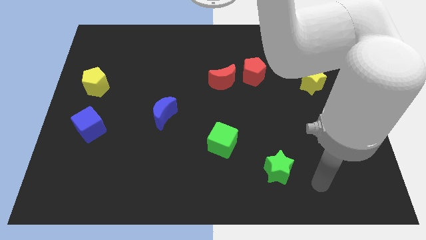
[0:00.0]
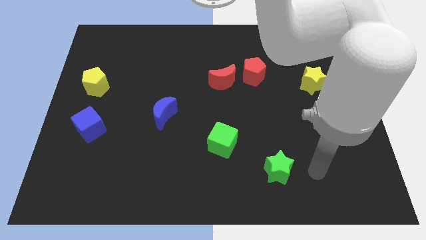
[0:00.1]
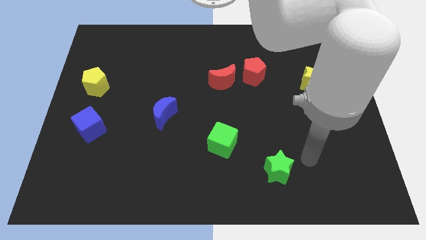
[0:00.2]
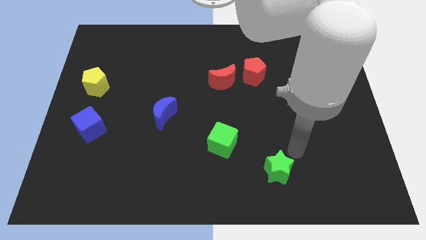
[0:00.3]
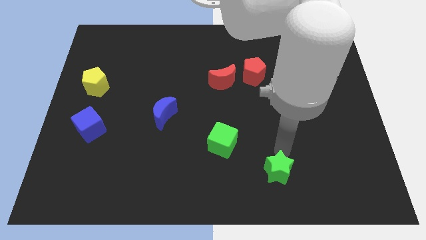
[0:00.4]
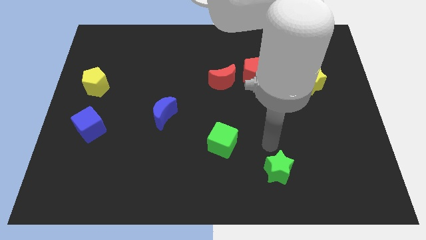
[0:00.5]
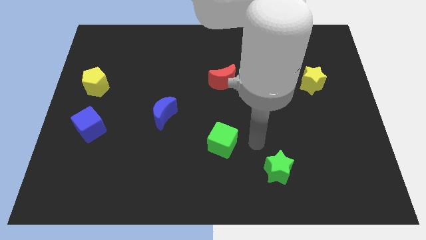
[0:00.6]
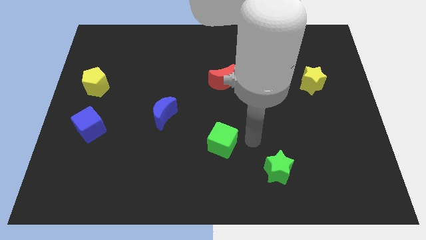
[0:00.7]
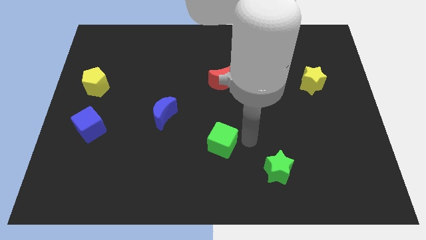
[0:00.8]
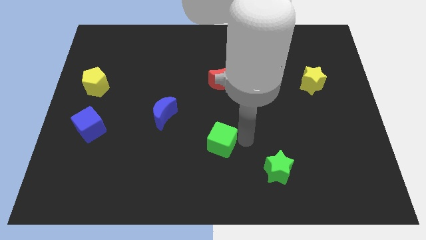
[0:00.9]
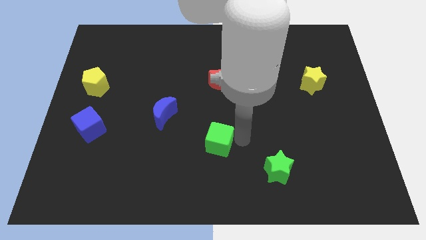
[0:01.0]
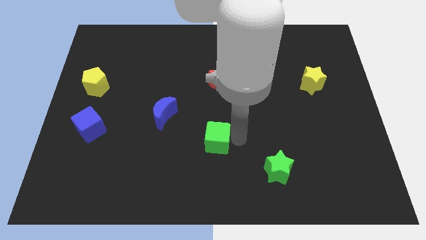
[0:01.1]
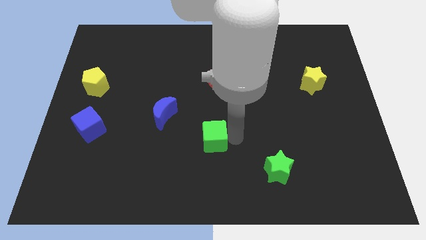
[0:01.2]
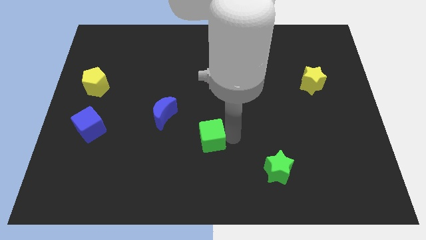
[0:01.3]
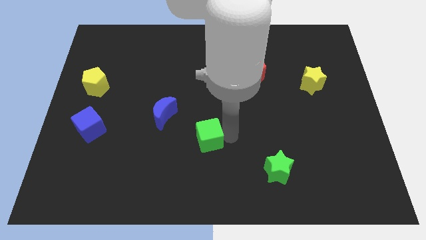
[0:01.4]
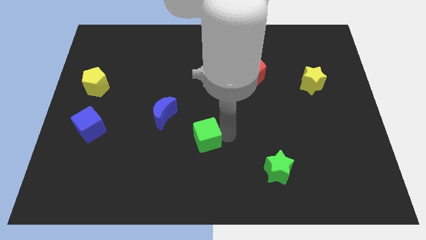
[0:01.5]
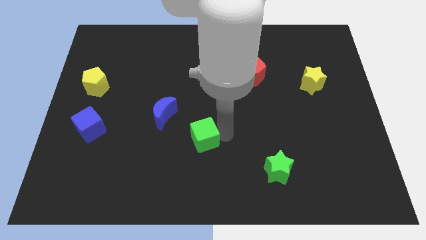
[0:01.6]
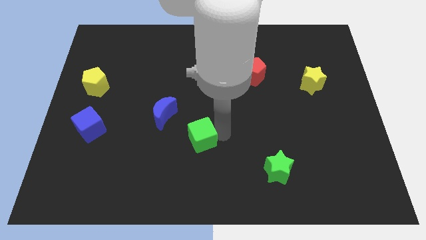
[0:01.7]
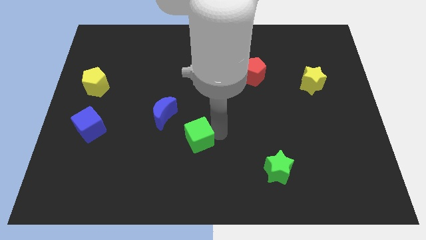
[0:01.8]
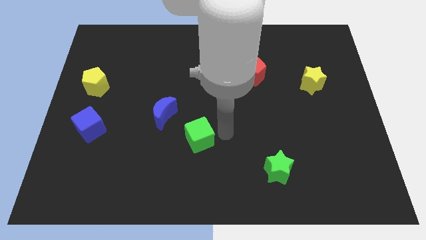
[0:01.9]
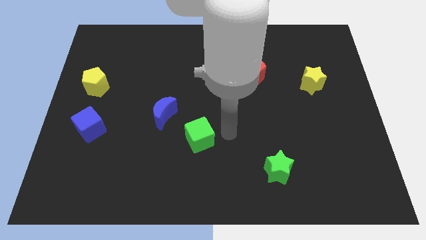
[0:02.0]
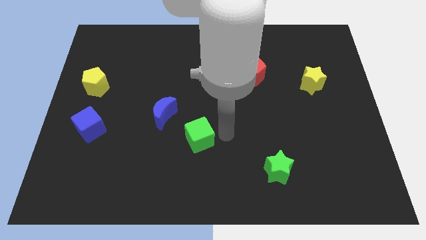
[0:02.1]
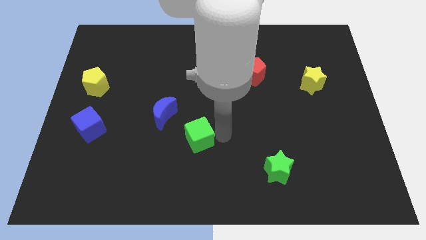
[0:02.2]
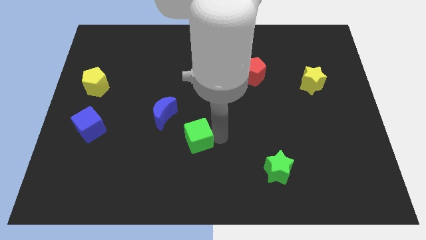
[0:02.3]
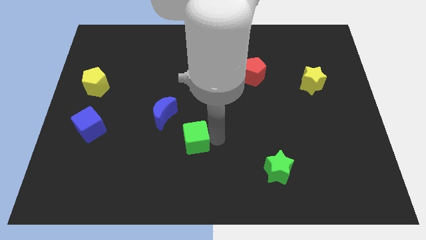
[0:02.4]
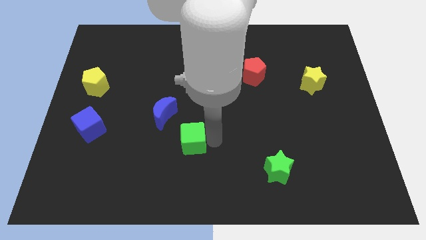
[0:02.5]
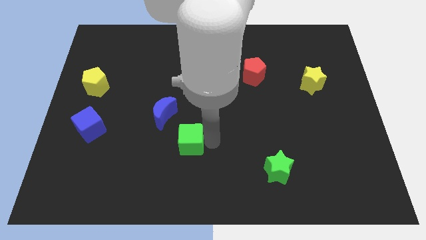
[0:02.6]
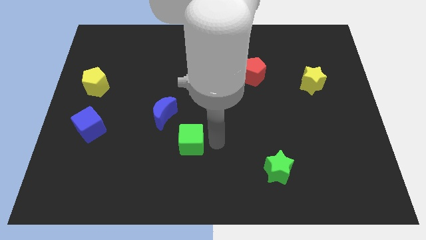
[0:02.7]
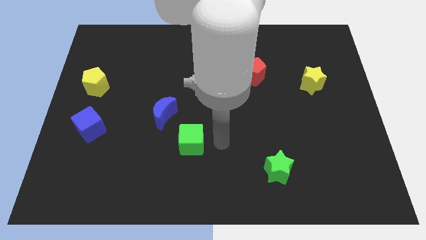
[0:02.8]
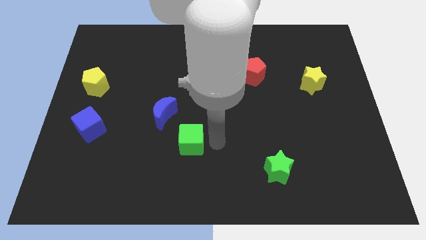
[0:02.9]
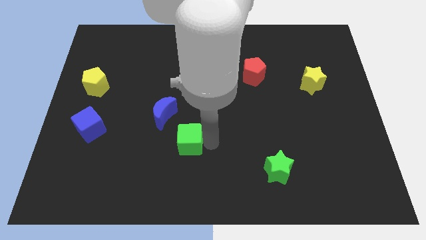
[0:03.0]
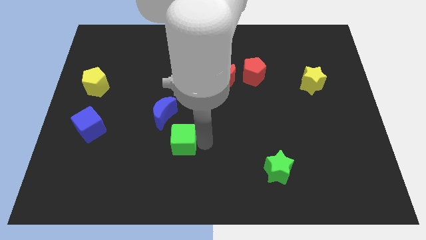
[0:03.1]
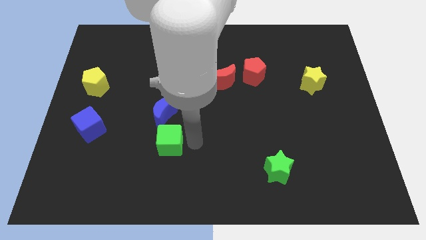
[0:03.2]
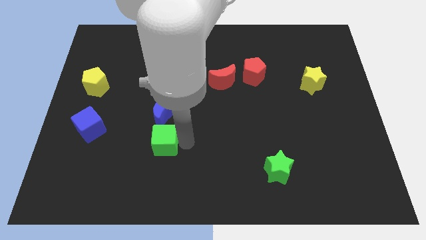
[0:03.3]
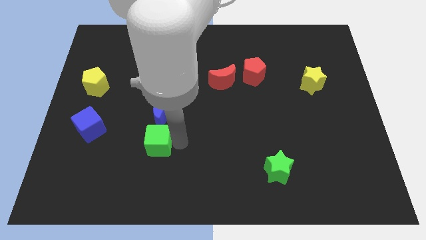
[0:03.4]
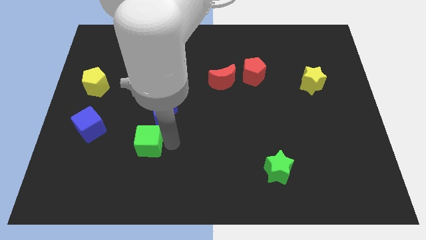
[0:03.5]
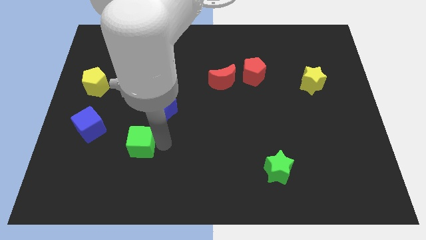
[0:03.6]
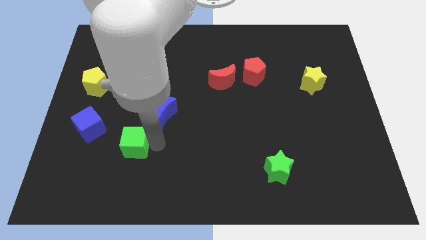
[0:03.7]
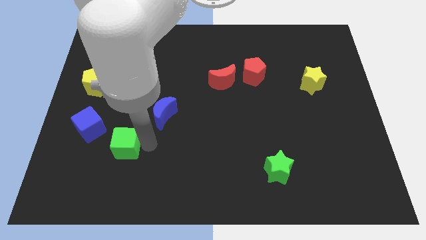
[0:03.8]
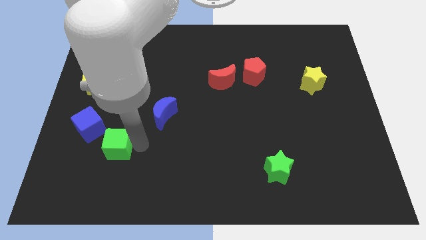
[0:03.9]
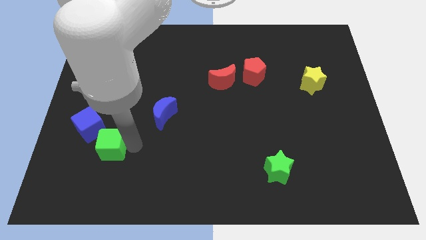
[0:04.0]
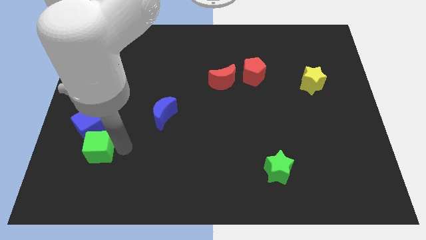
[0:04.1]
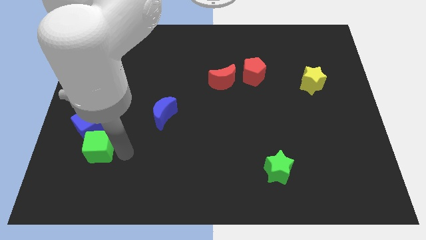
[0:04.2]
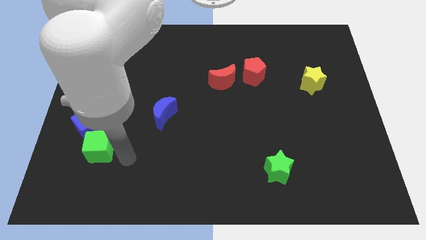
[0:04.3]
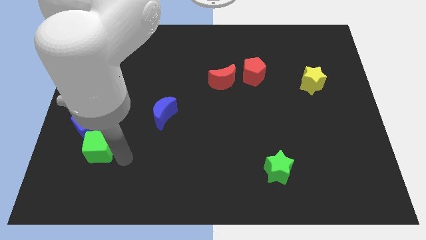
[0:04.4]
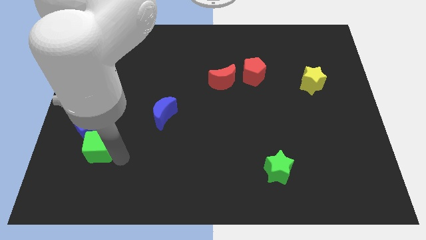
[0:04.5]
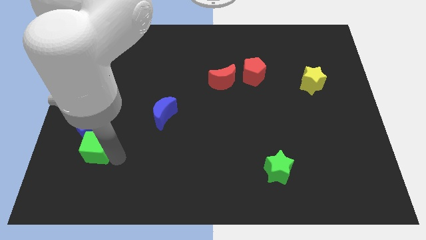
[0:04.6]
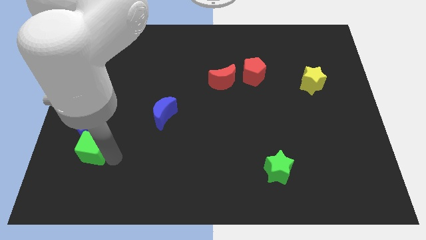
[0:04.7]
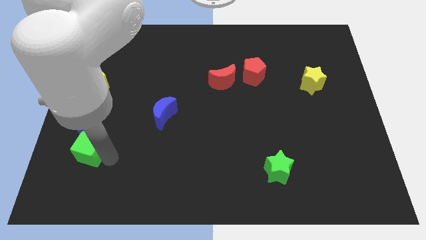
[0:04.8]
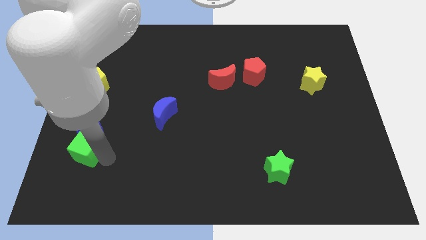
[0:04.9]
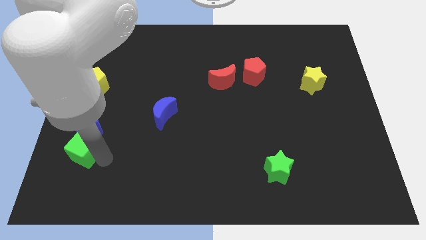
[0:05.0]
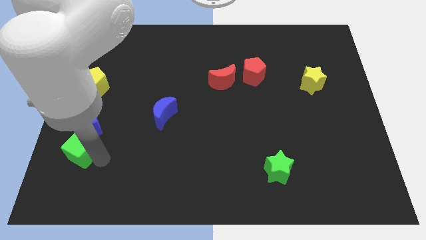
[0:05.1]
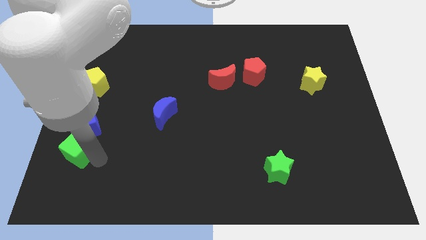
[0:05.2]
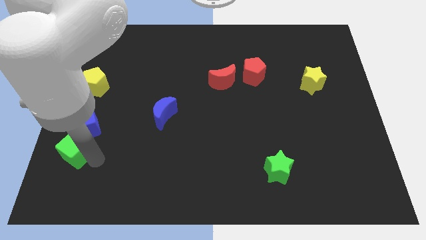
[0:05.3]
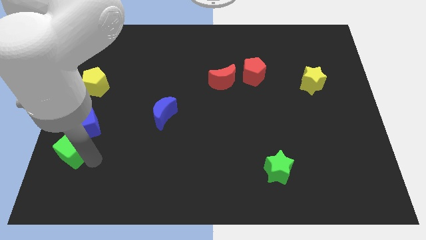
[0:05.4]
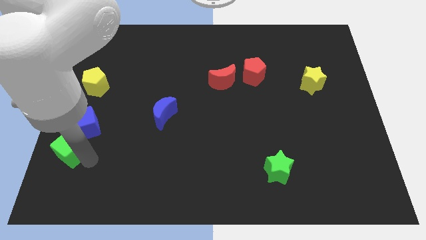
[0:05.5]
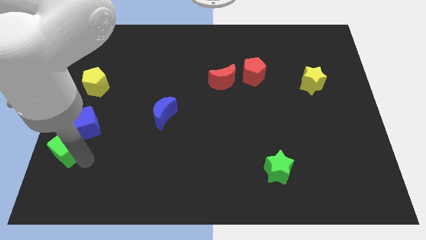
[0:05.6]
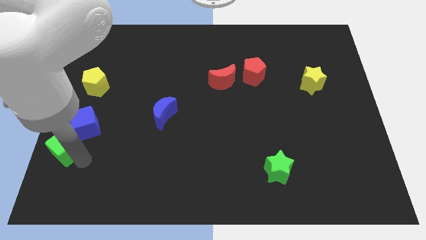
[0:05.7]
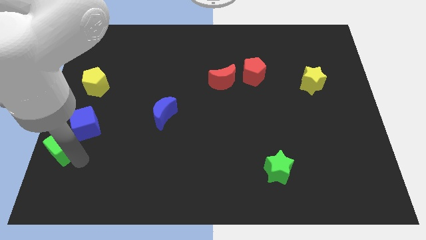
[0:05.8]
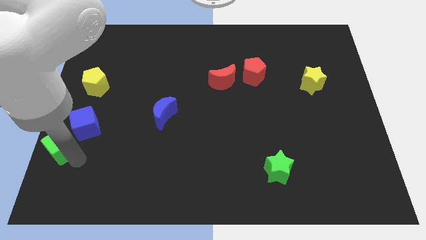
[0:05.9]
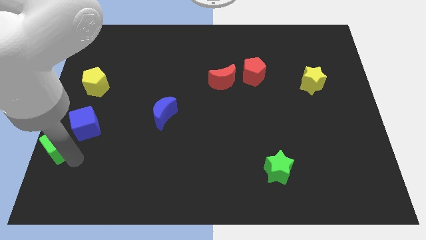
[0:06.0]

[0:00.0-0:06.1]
put the green cube to the left side of the board

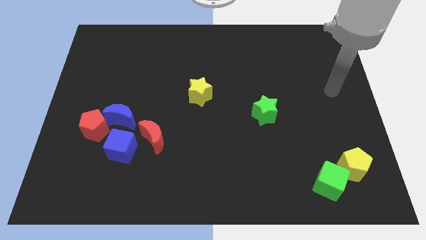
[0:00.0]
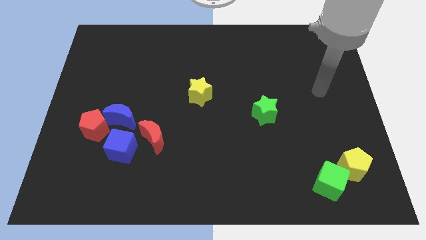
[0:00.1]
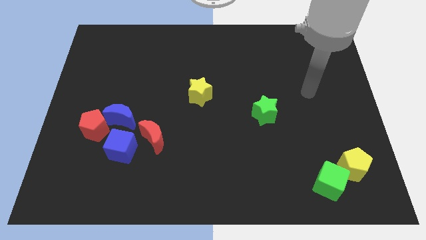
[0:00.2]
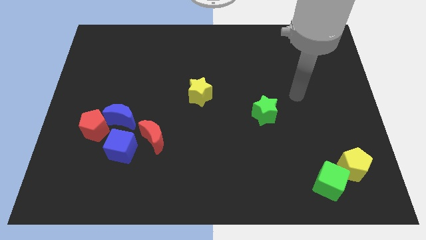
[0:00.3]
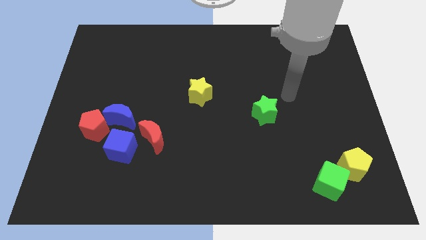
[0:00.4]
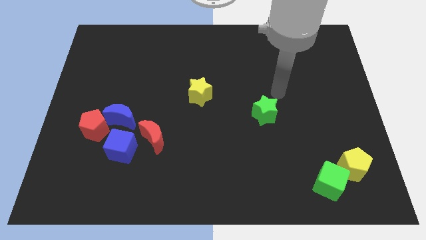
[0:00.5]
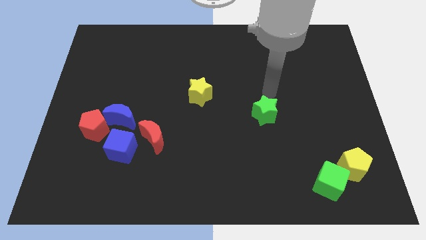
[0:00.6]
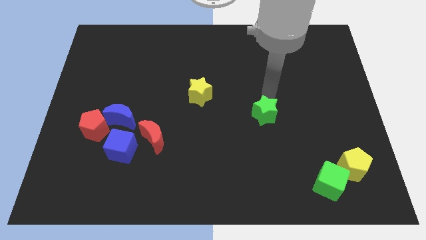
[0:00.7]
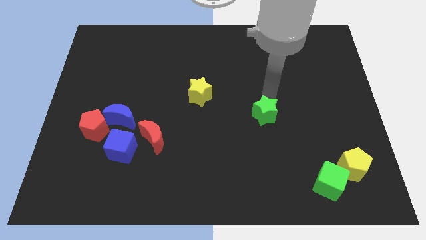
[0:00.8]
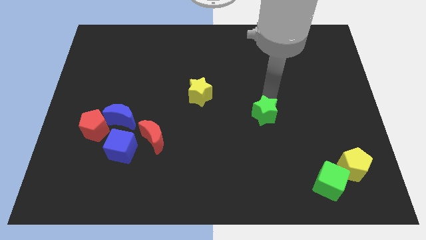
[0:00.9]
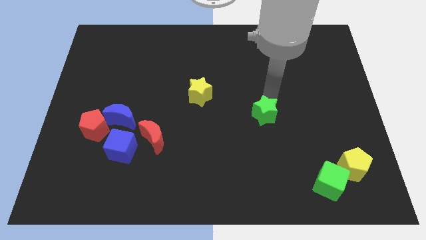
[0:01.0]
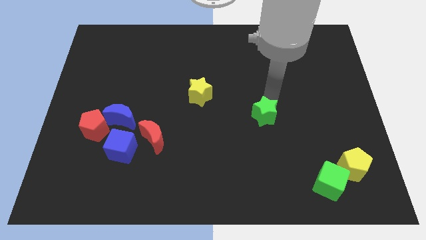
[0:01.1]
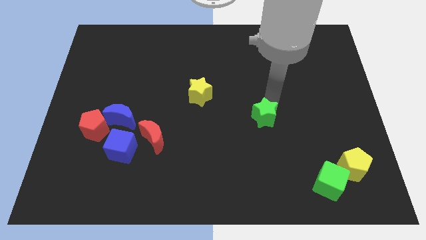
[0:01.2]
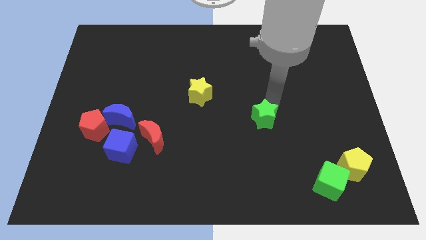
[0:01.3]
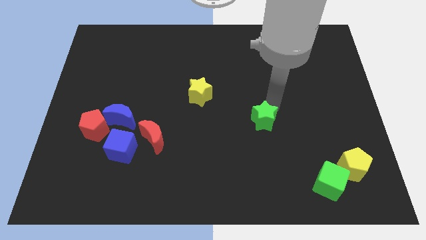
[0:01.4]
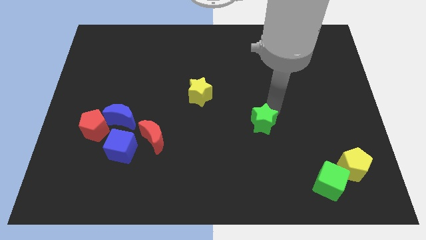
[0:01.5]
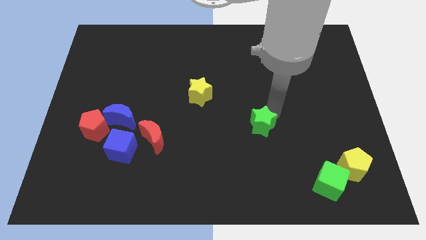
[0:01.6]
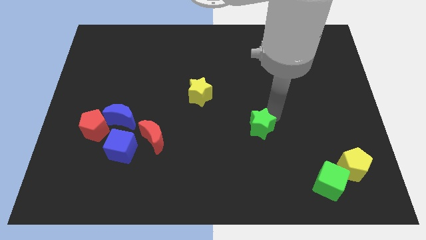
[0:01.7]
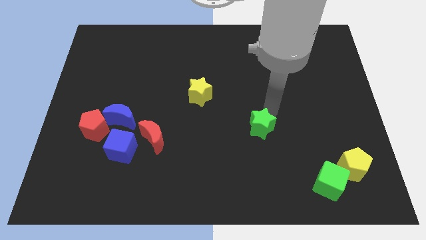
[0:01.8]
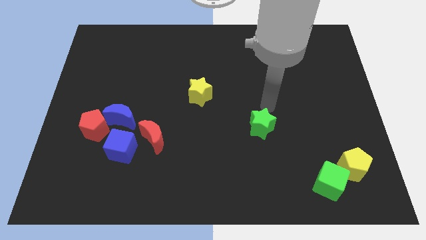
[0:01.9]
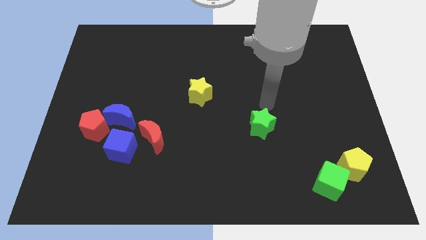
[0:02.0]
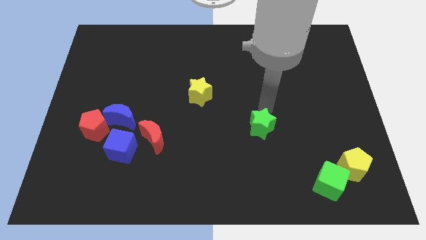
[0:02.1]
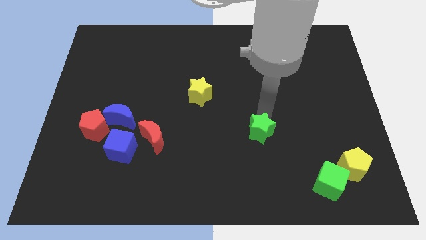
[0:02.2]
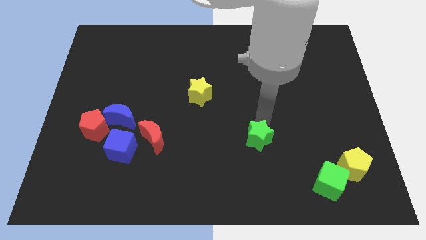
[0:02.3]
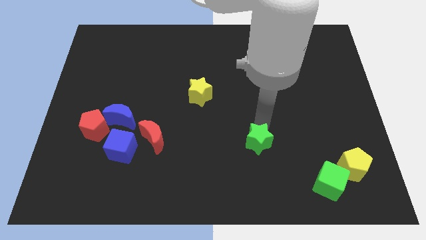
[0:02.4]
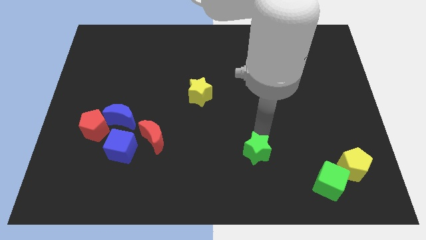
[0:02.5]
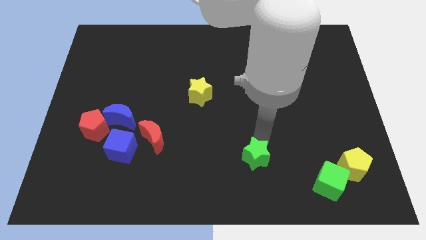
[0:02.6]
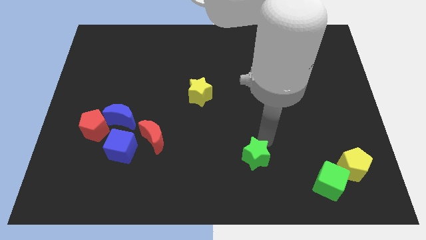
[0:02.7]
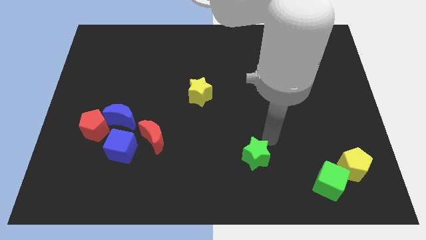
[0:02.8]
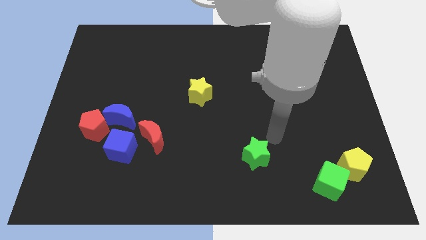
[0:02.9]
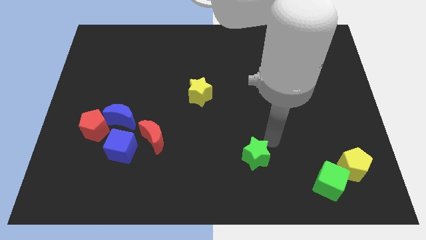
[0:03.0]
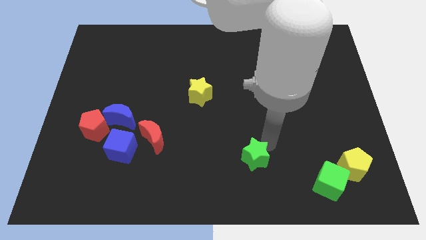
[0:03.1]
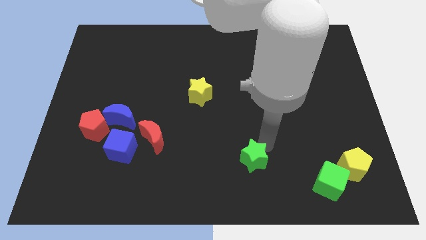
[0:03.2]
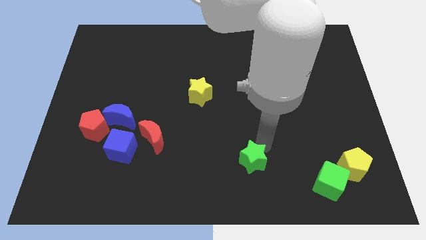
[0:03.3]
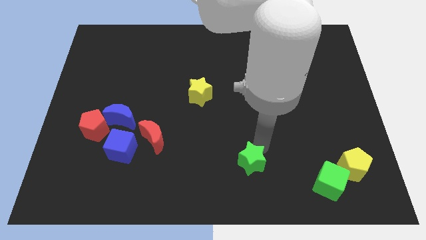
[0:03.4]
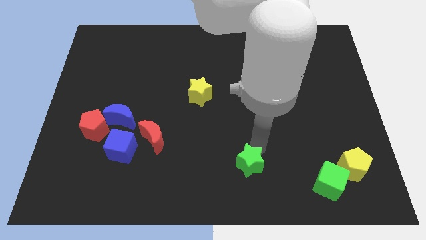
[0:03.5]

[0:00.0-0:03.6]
put the green star to the bottom side
